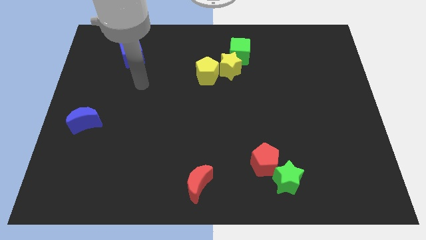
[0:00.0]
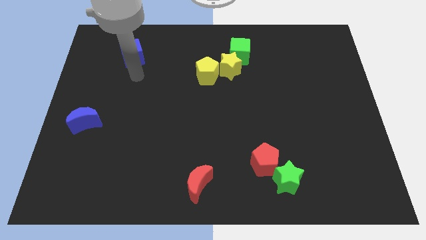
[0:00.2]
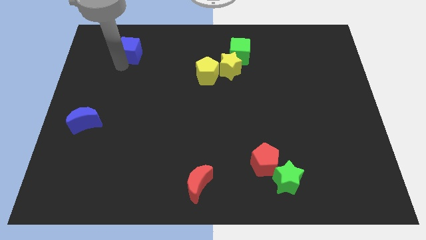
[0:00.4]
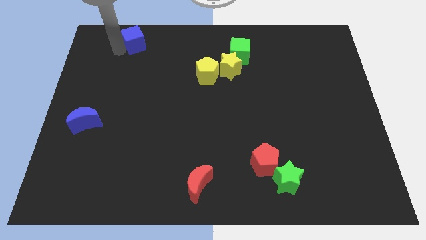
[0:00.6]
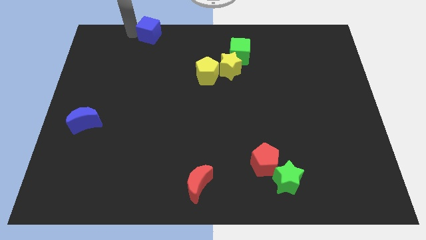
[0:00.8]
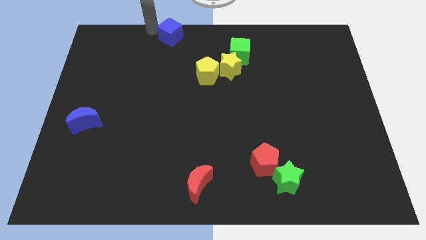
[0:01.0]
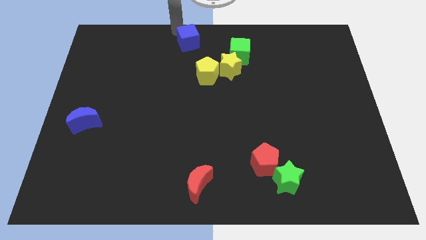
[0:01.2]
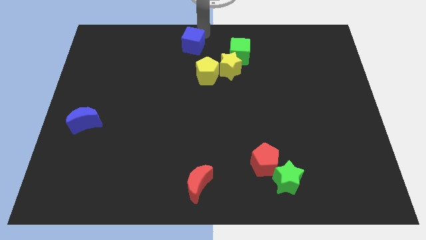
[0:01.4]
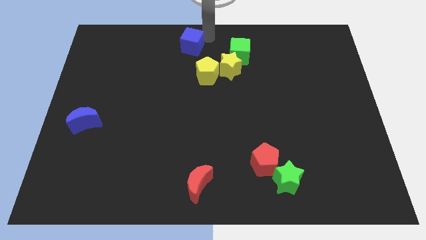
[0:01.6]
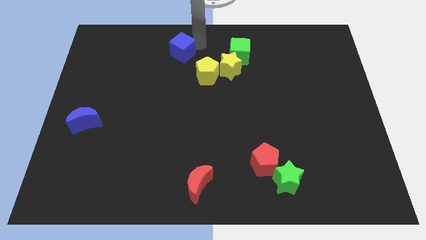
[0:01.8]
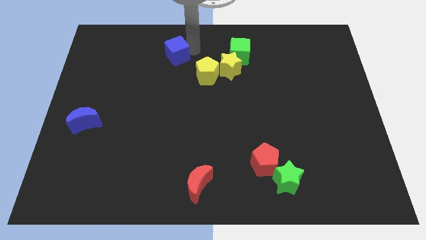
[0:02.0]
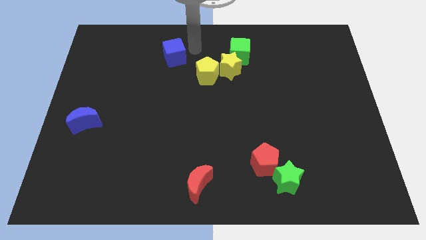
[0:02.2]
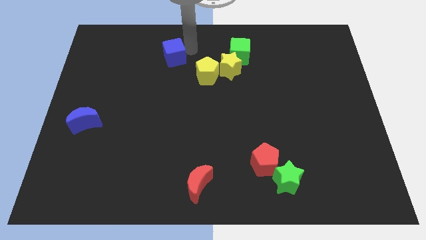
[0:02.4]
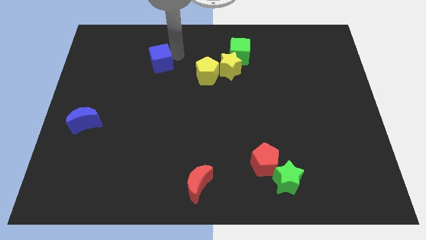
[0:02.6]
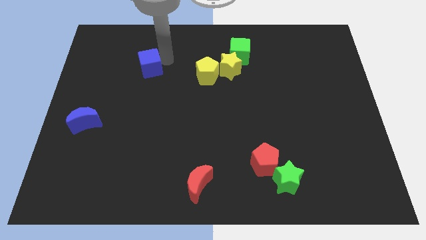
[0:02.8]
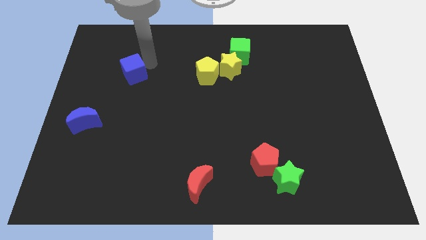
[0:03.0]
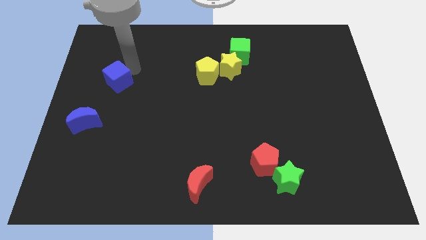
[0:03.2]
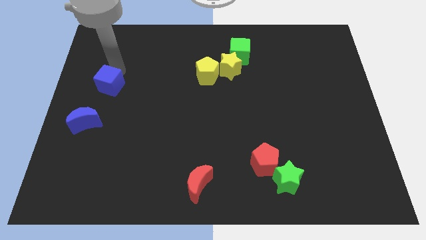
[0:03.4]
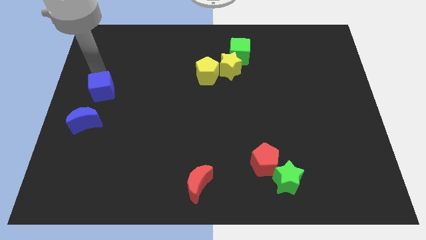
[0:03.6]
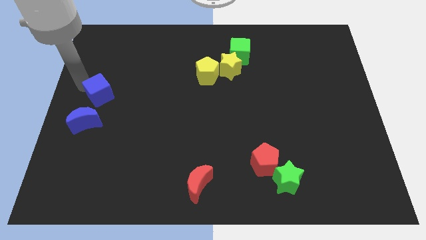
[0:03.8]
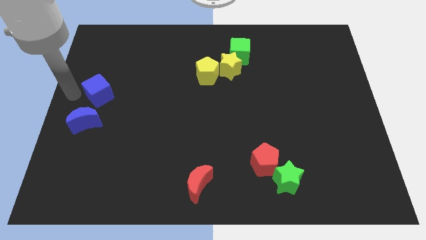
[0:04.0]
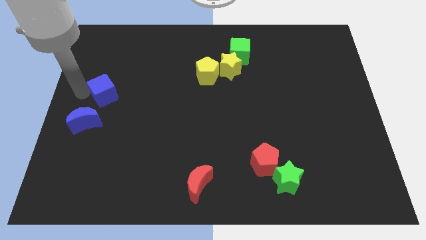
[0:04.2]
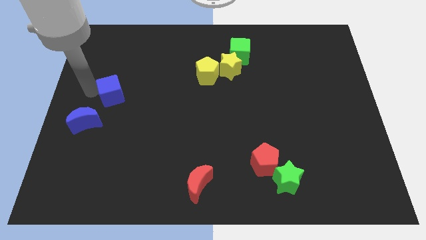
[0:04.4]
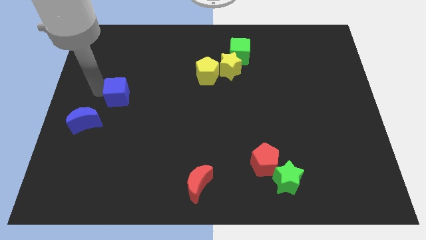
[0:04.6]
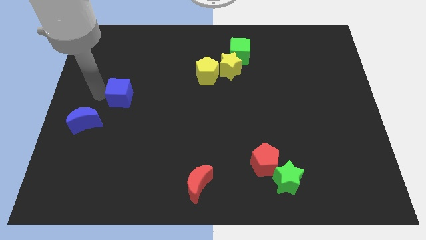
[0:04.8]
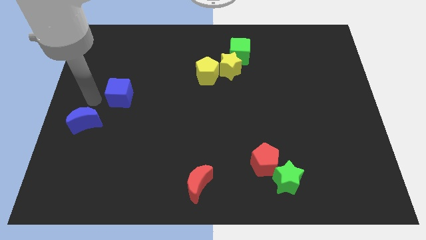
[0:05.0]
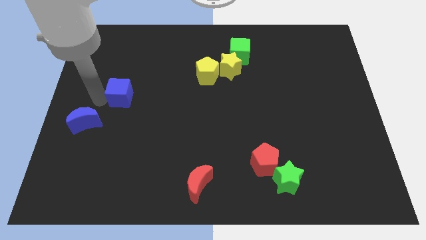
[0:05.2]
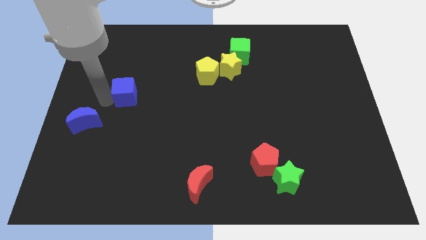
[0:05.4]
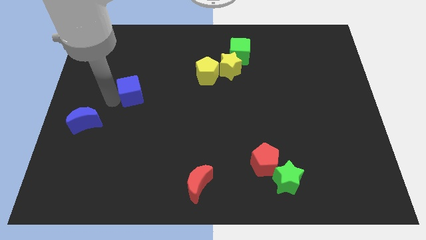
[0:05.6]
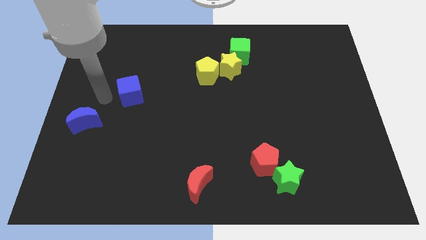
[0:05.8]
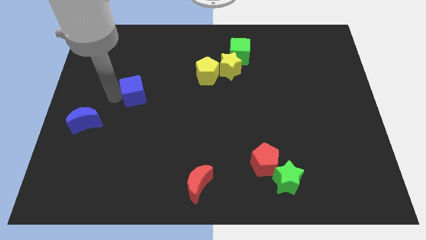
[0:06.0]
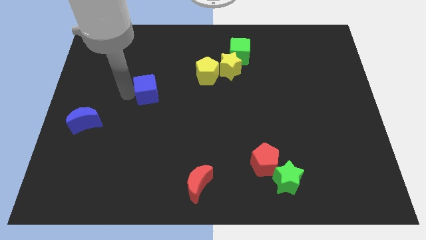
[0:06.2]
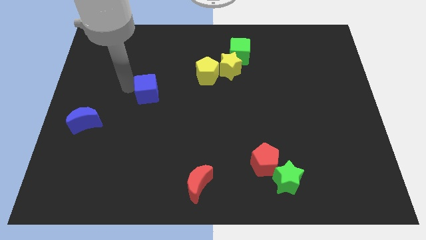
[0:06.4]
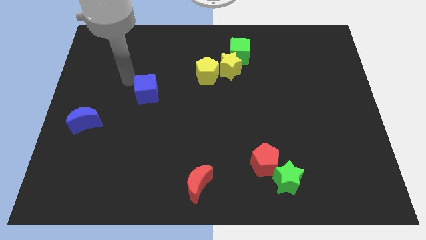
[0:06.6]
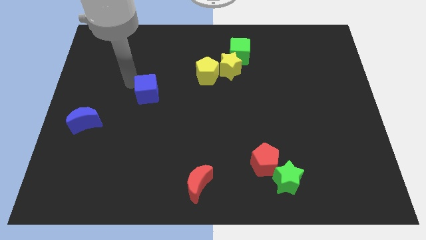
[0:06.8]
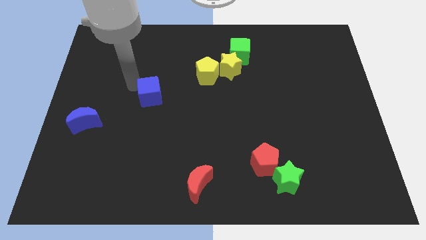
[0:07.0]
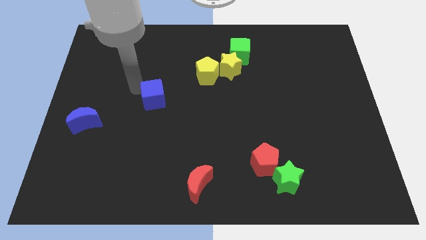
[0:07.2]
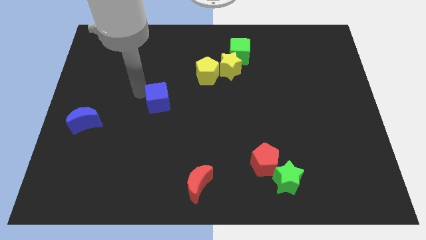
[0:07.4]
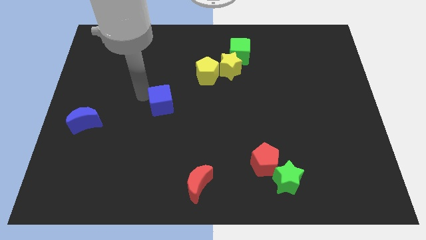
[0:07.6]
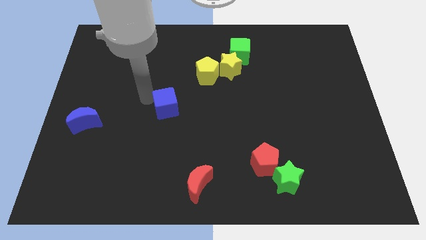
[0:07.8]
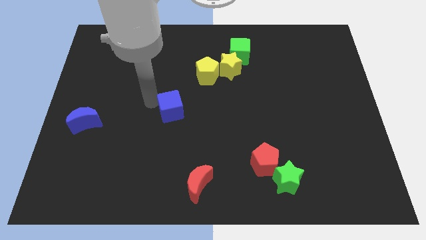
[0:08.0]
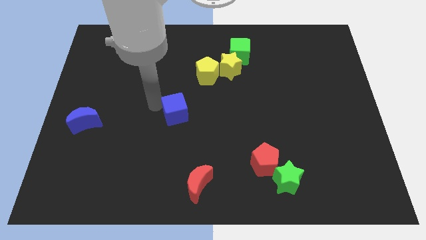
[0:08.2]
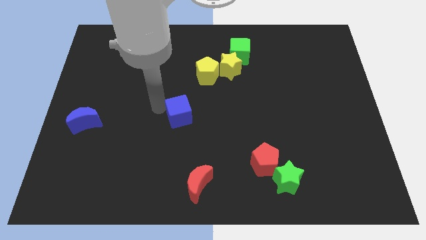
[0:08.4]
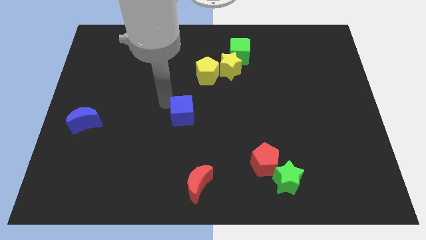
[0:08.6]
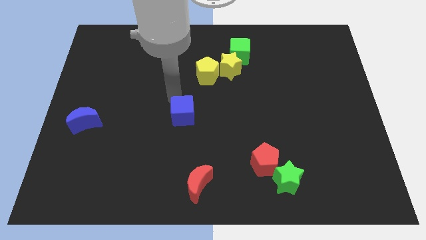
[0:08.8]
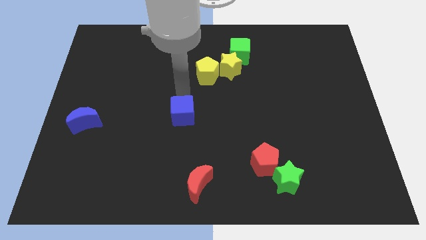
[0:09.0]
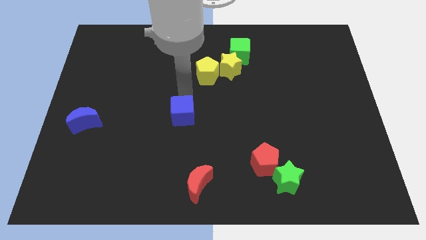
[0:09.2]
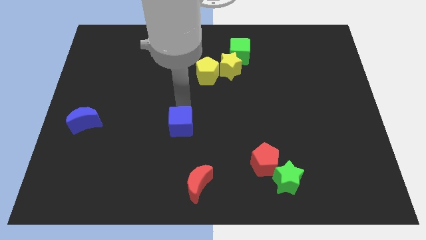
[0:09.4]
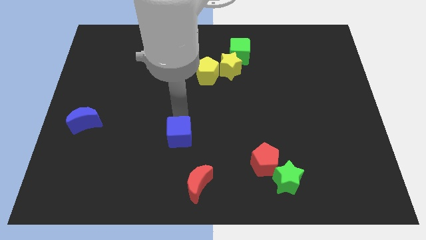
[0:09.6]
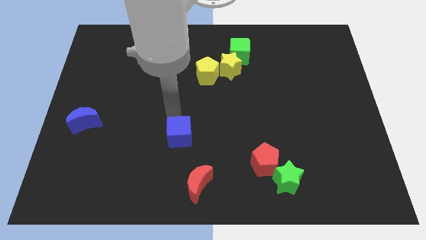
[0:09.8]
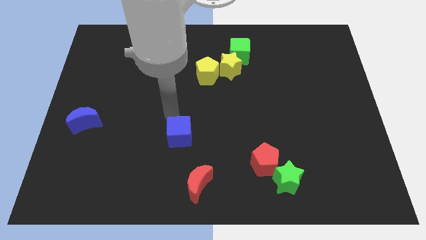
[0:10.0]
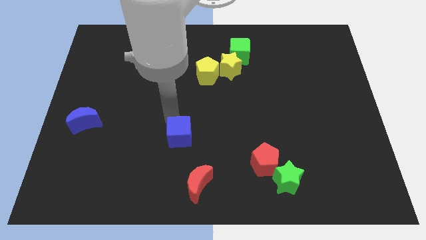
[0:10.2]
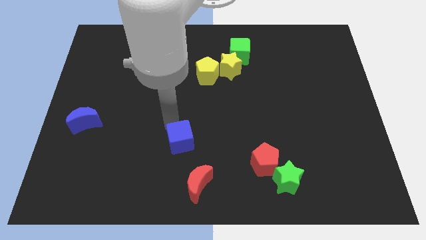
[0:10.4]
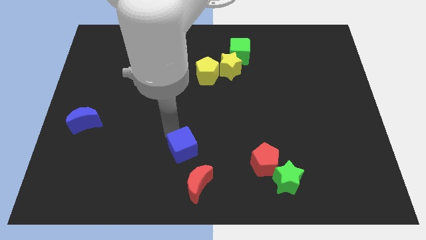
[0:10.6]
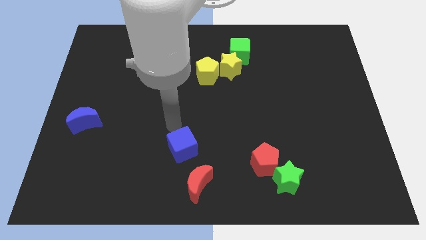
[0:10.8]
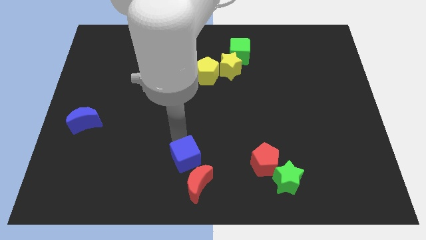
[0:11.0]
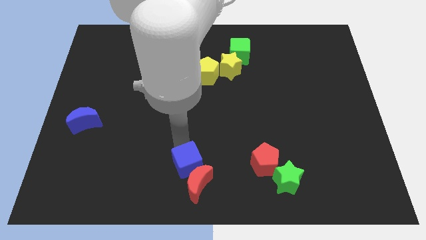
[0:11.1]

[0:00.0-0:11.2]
move the blue cube towards the red moon

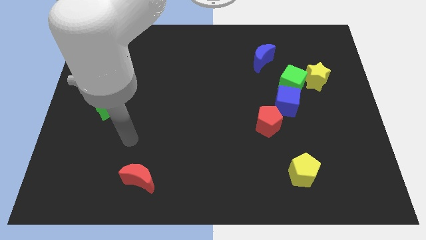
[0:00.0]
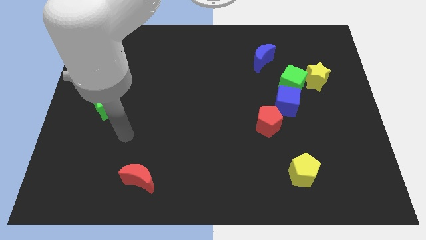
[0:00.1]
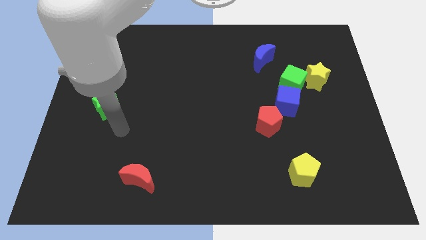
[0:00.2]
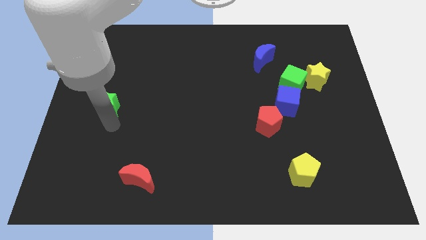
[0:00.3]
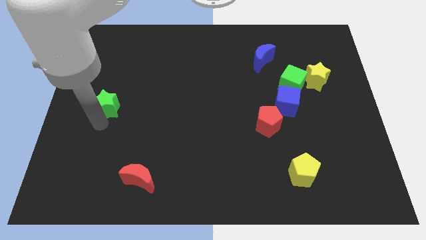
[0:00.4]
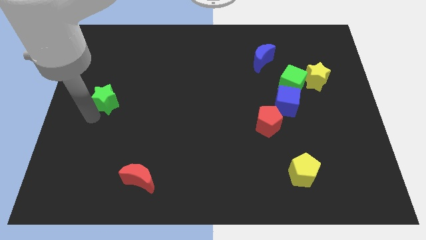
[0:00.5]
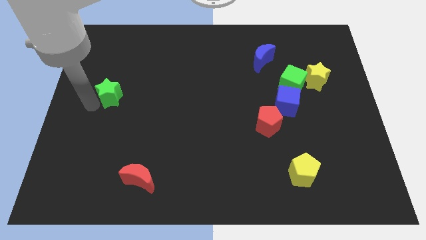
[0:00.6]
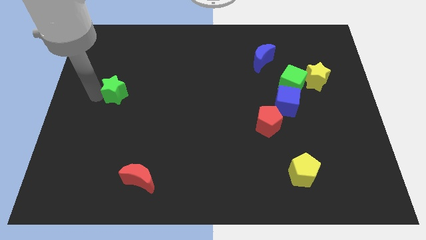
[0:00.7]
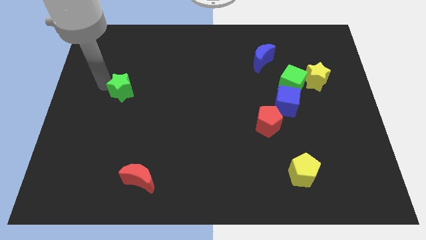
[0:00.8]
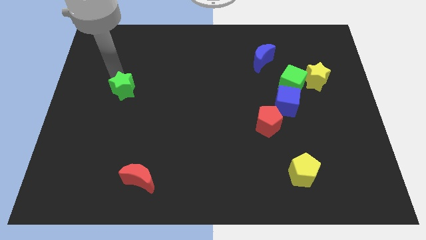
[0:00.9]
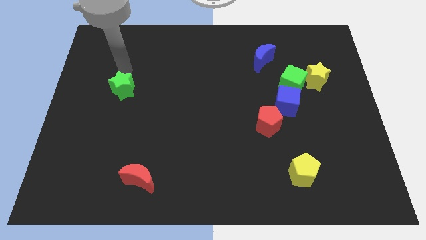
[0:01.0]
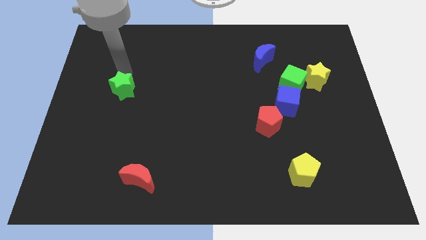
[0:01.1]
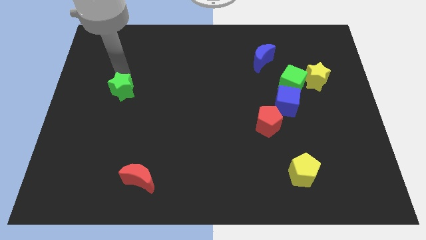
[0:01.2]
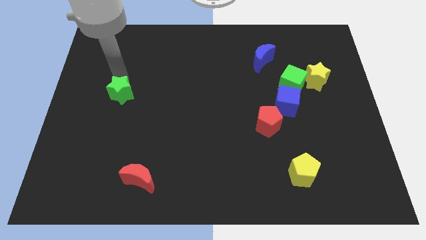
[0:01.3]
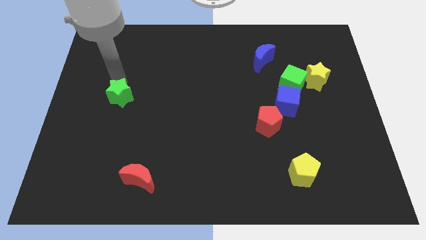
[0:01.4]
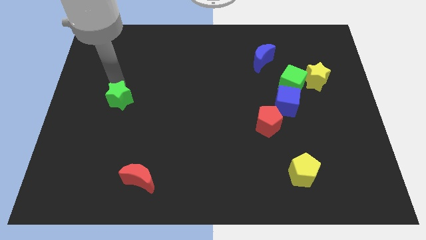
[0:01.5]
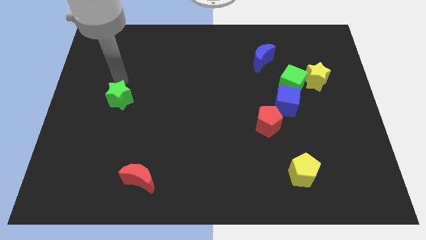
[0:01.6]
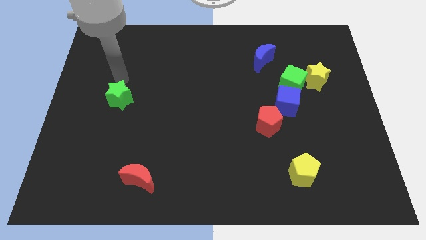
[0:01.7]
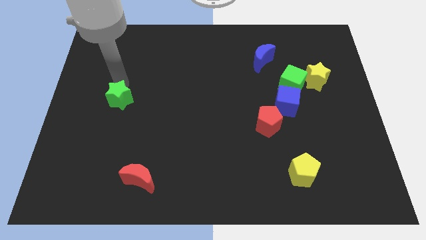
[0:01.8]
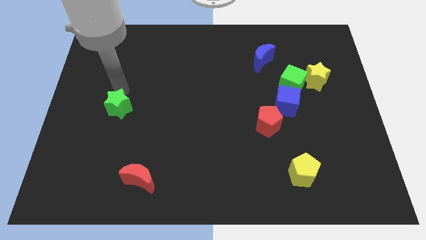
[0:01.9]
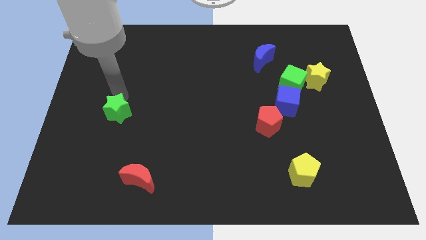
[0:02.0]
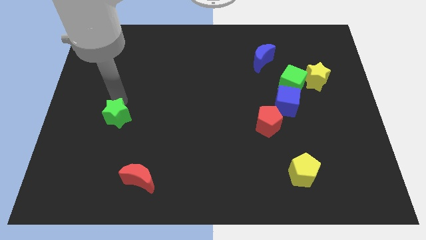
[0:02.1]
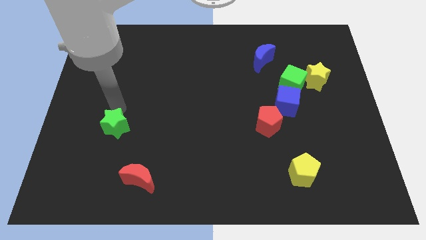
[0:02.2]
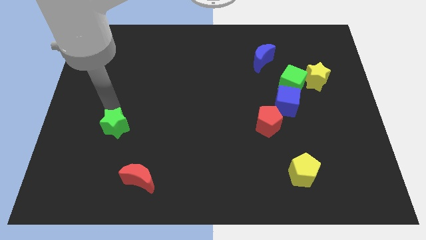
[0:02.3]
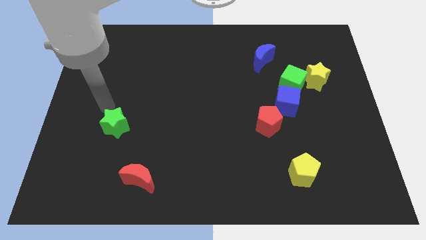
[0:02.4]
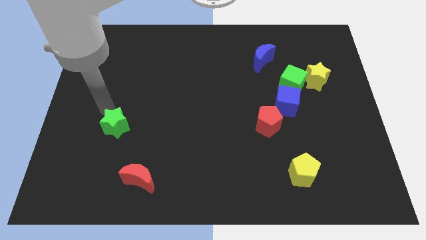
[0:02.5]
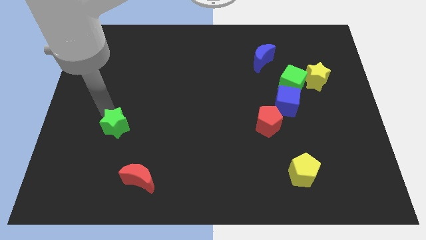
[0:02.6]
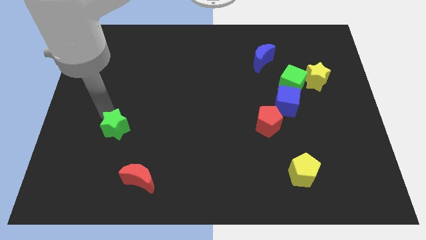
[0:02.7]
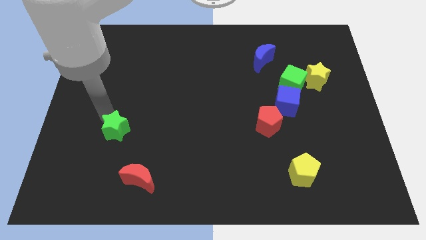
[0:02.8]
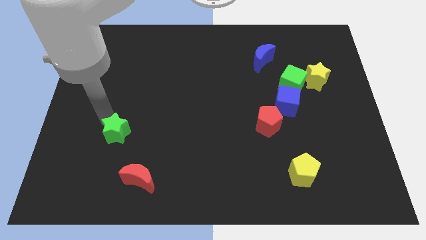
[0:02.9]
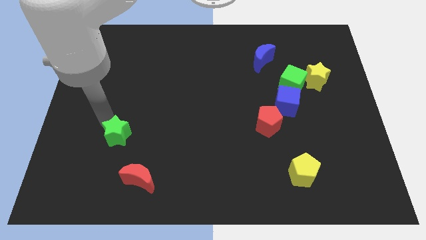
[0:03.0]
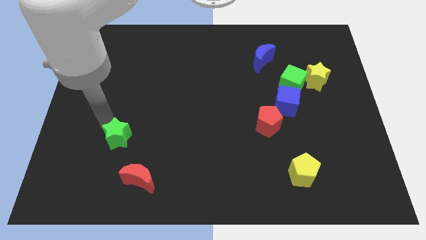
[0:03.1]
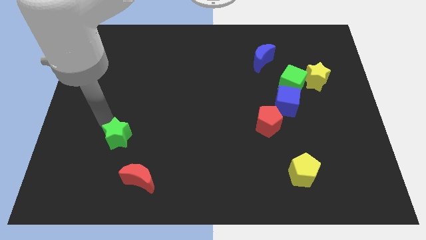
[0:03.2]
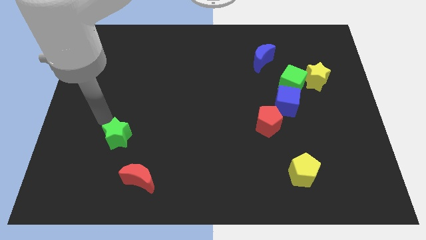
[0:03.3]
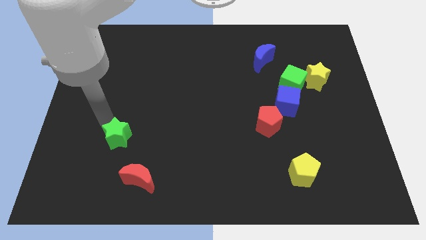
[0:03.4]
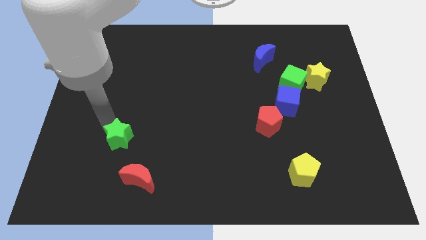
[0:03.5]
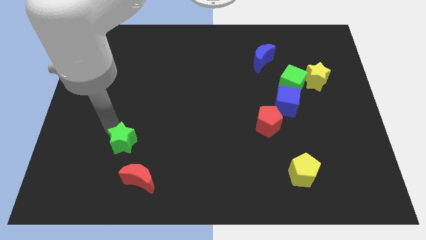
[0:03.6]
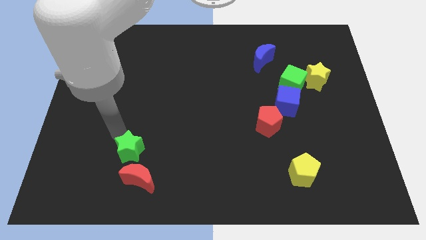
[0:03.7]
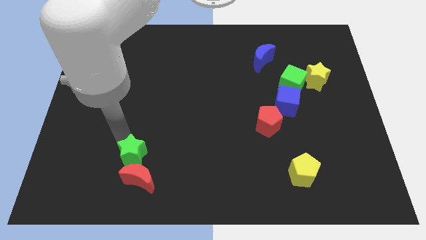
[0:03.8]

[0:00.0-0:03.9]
push the green star close to the red moon
